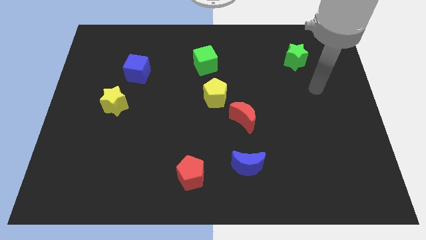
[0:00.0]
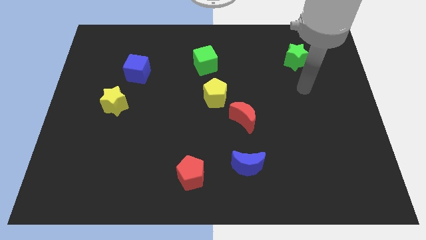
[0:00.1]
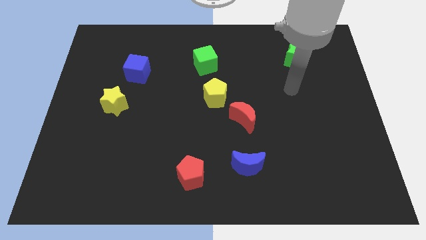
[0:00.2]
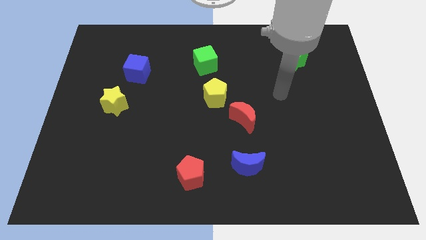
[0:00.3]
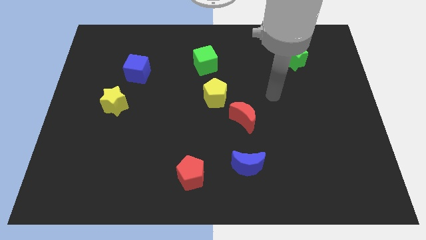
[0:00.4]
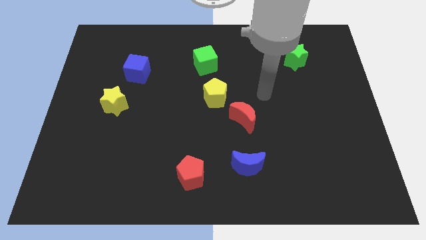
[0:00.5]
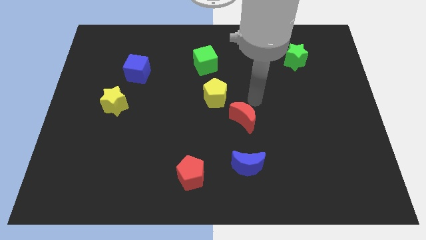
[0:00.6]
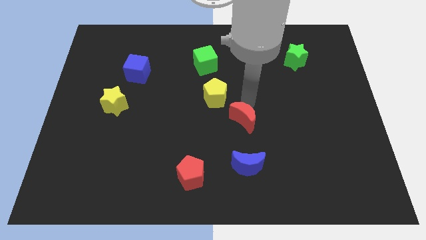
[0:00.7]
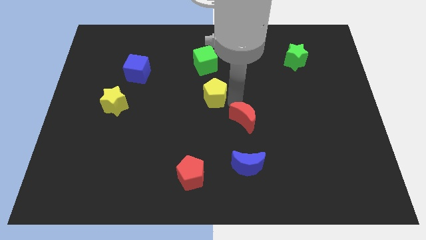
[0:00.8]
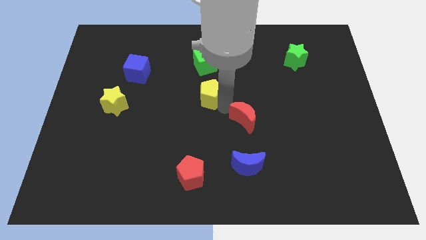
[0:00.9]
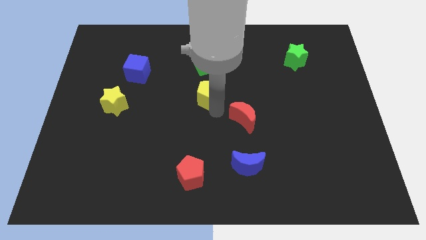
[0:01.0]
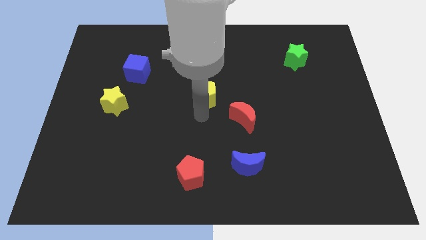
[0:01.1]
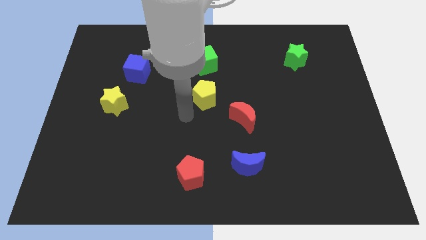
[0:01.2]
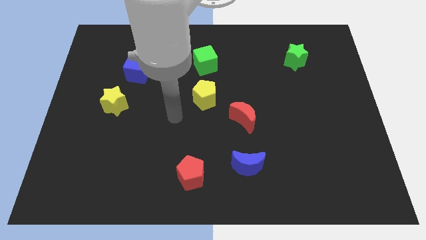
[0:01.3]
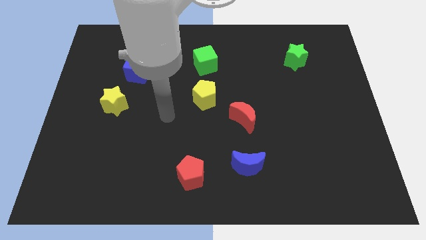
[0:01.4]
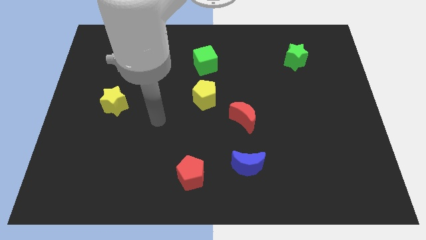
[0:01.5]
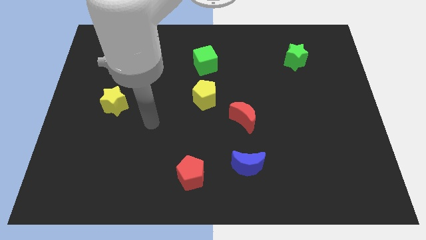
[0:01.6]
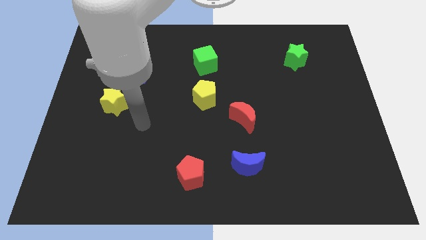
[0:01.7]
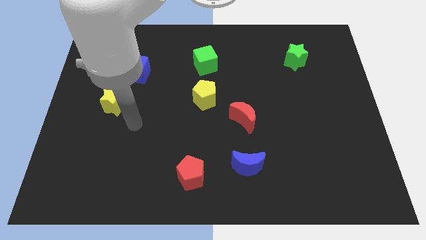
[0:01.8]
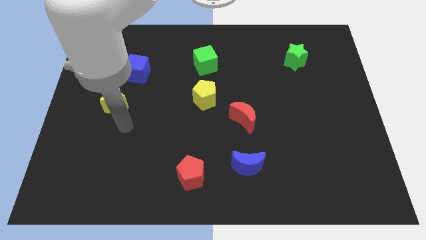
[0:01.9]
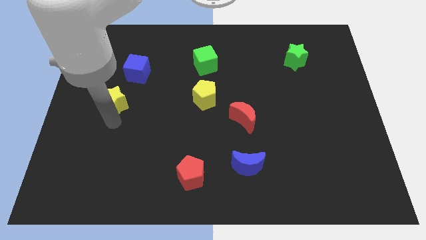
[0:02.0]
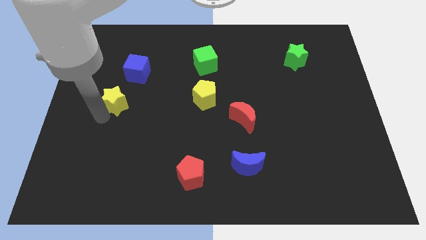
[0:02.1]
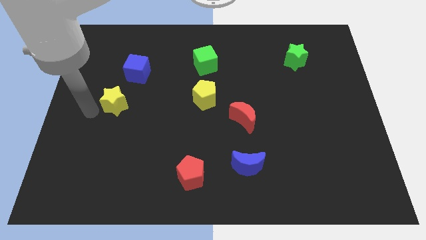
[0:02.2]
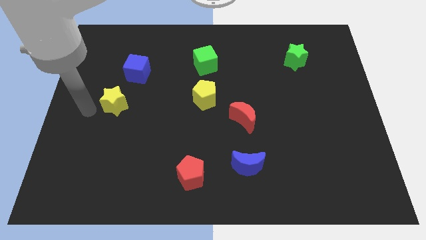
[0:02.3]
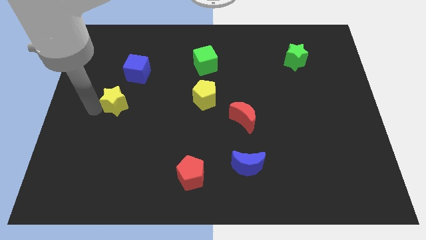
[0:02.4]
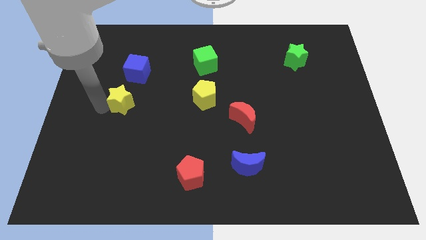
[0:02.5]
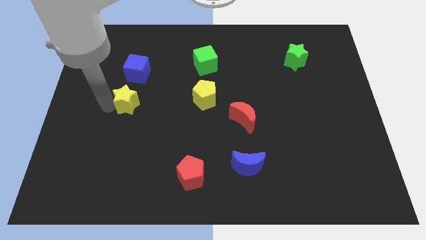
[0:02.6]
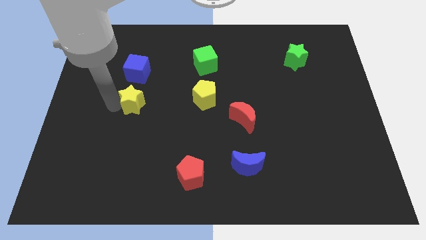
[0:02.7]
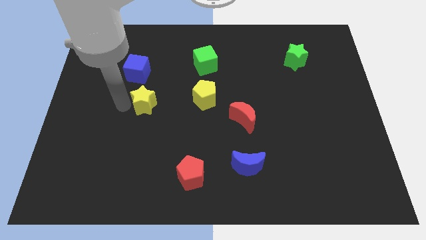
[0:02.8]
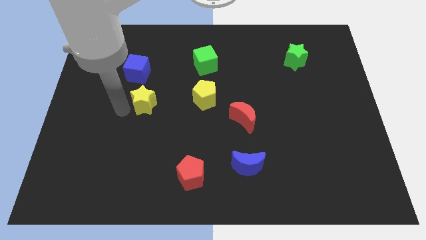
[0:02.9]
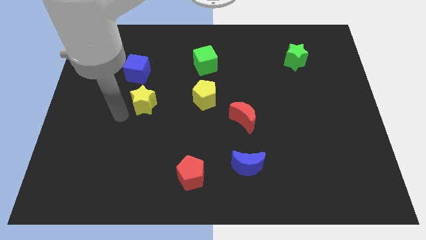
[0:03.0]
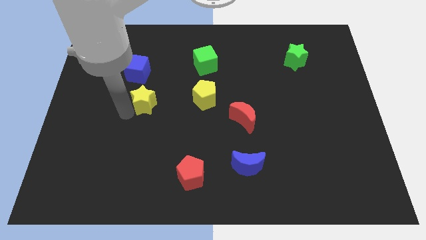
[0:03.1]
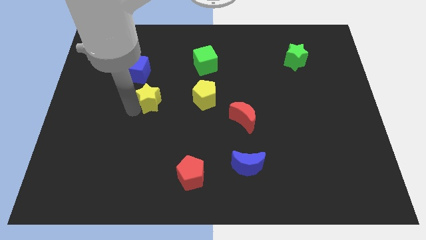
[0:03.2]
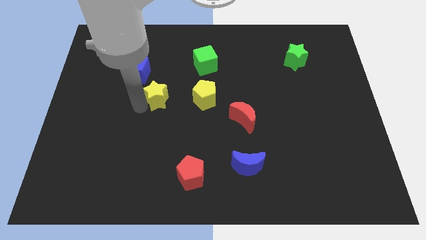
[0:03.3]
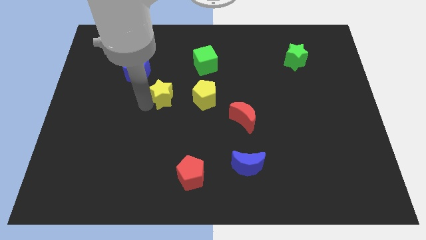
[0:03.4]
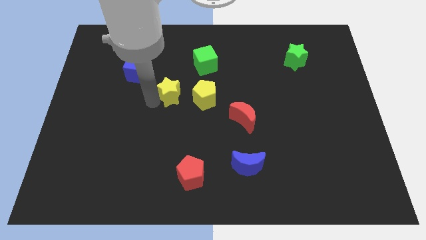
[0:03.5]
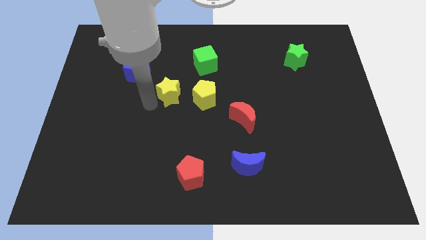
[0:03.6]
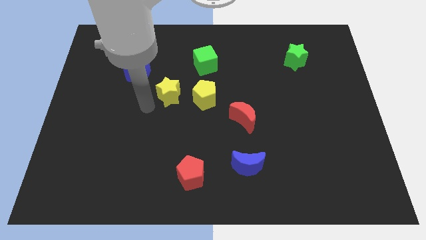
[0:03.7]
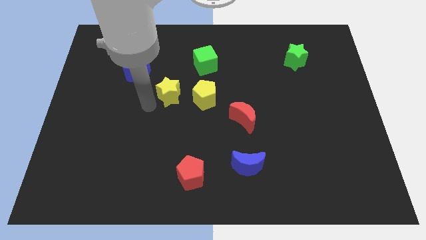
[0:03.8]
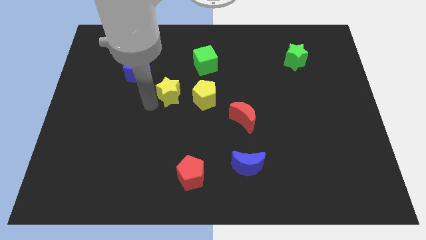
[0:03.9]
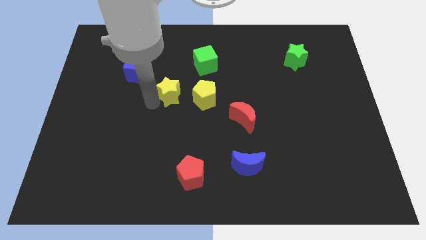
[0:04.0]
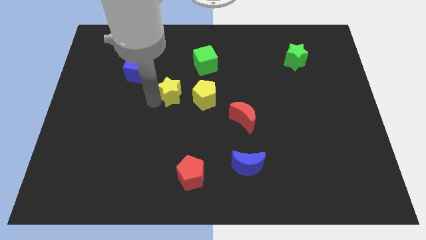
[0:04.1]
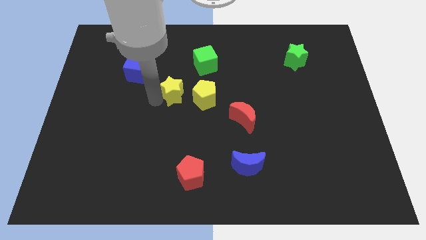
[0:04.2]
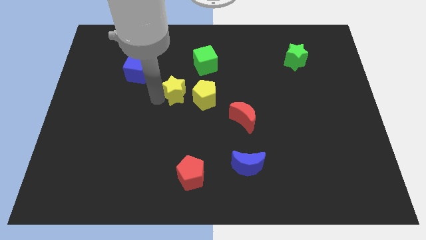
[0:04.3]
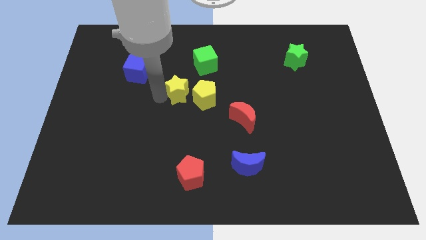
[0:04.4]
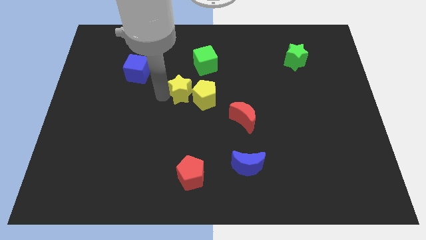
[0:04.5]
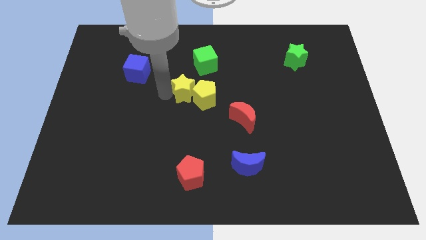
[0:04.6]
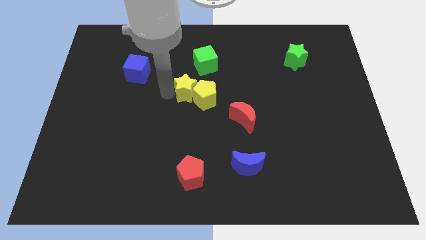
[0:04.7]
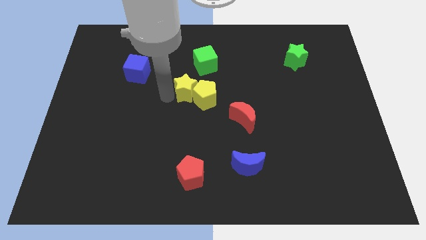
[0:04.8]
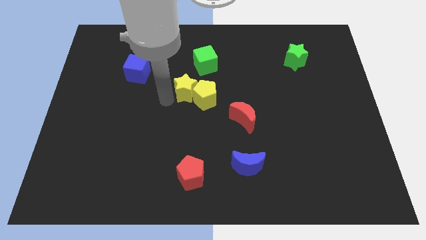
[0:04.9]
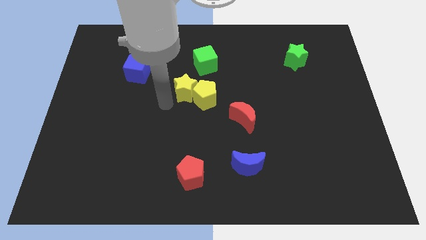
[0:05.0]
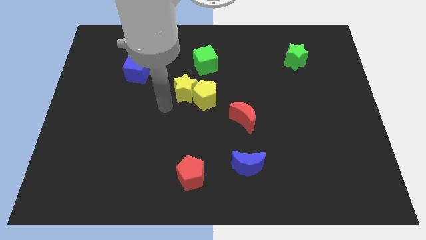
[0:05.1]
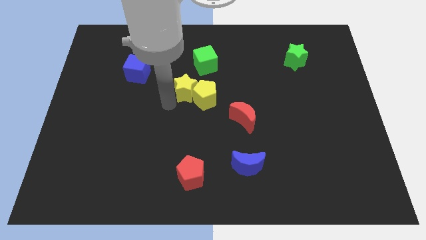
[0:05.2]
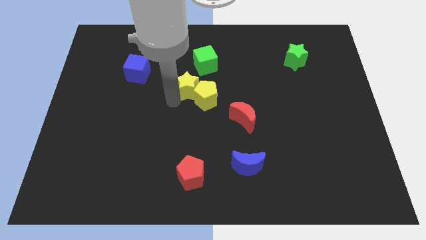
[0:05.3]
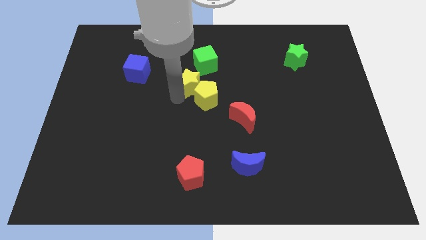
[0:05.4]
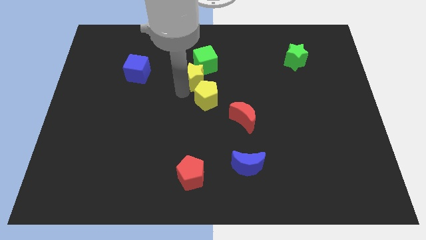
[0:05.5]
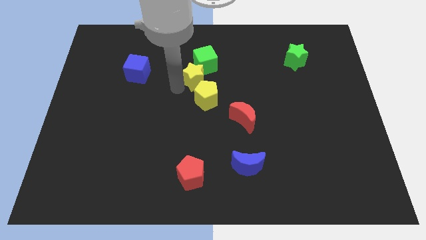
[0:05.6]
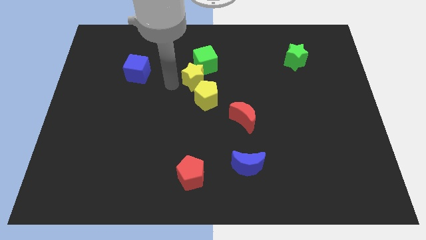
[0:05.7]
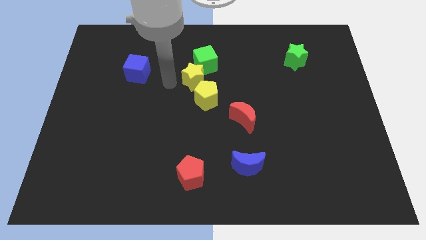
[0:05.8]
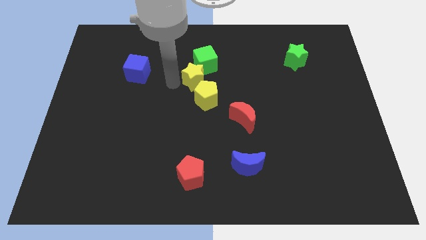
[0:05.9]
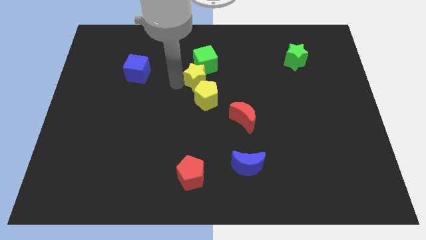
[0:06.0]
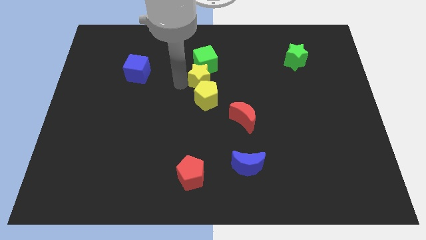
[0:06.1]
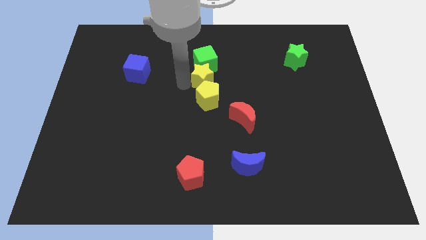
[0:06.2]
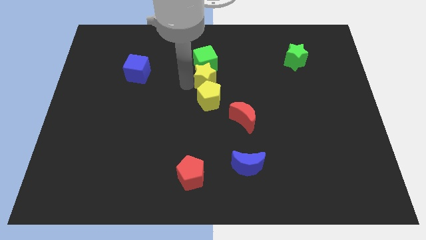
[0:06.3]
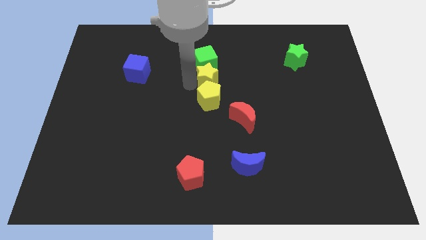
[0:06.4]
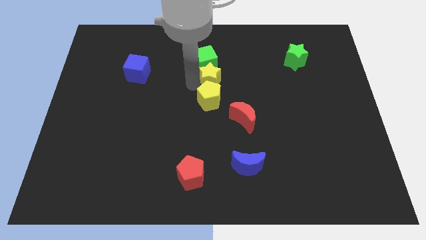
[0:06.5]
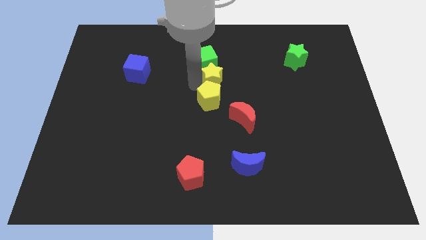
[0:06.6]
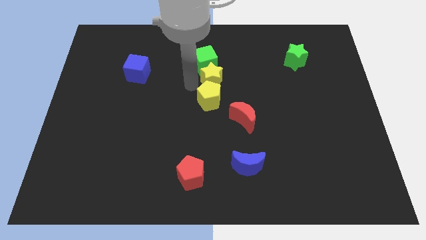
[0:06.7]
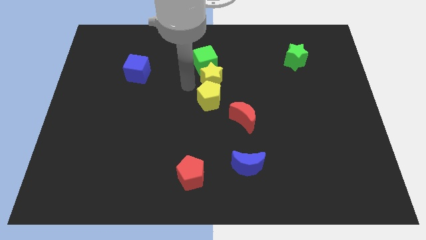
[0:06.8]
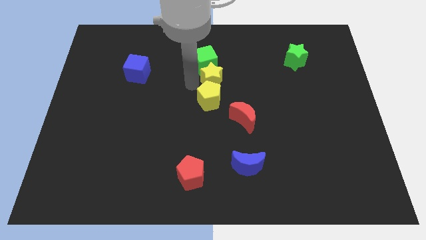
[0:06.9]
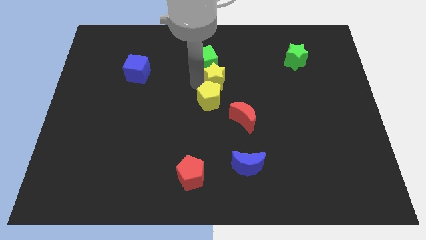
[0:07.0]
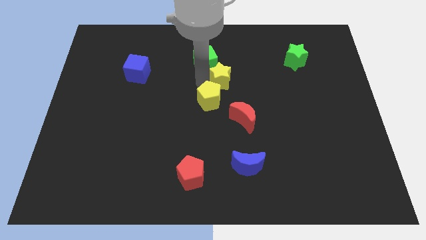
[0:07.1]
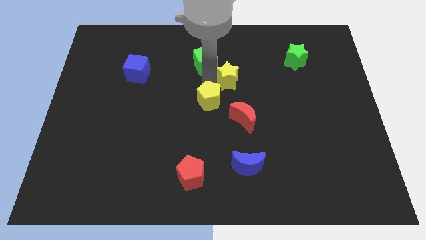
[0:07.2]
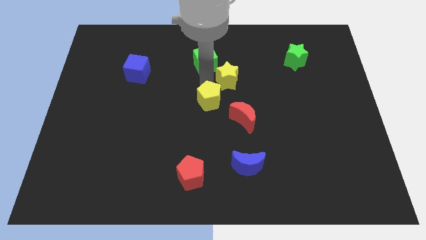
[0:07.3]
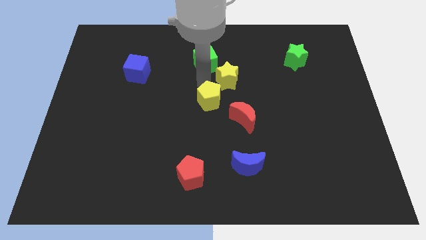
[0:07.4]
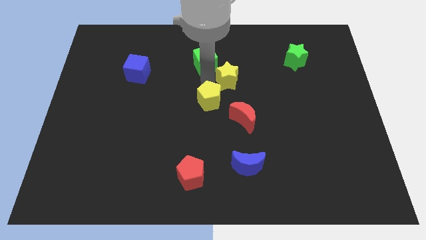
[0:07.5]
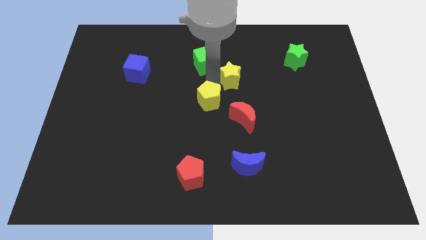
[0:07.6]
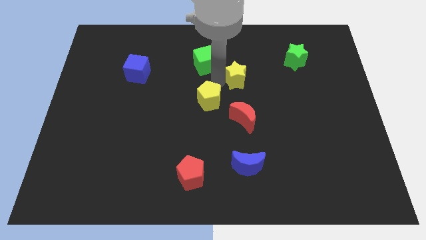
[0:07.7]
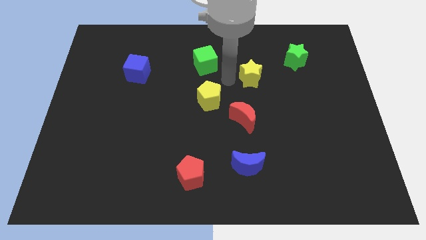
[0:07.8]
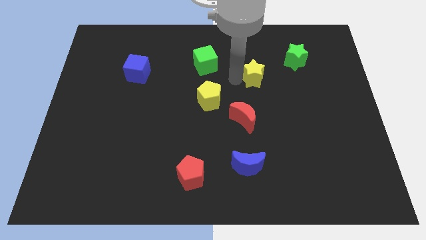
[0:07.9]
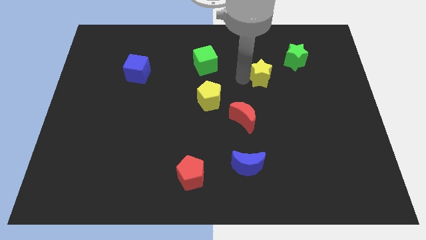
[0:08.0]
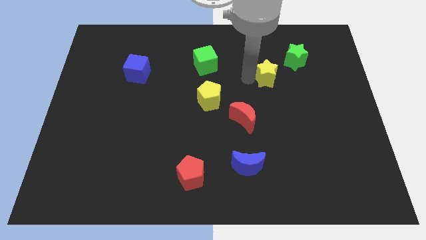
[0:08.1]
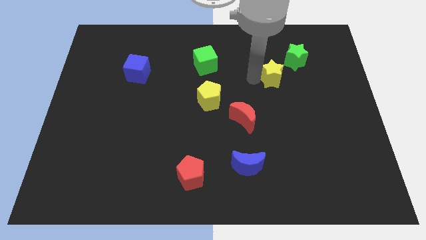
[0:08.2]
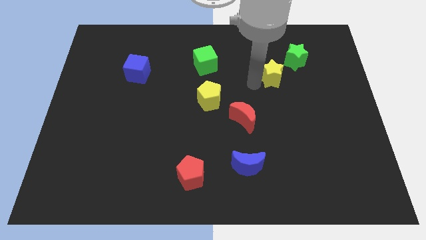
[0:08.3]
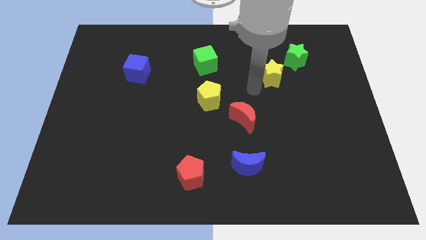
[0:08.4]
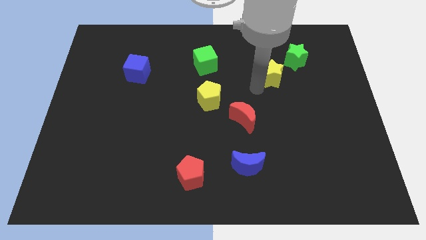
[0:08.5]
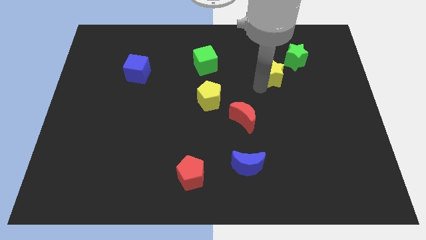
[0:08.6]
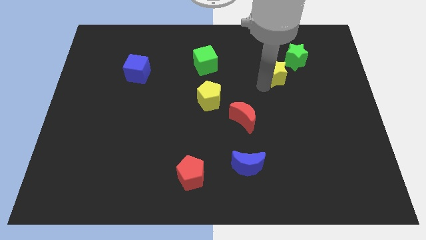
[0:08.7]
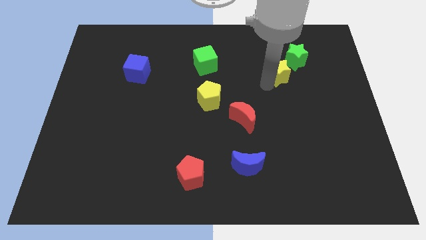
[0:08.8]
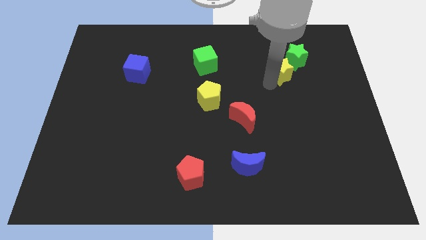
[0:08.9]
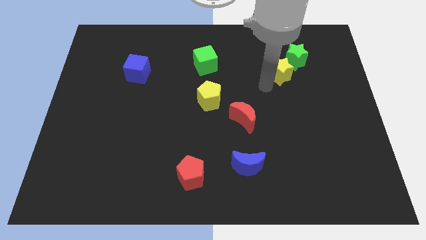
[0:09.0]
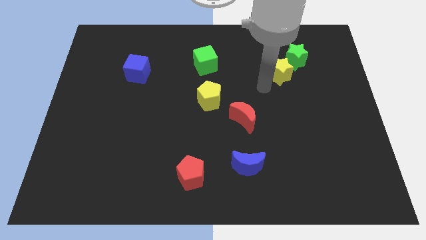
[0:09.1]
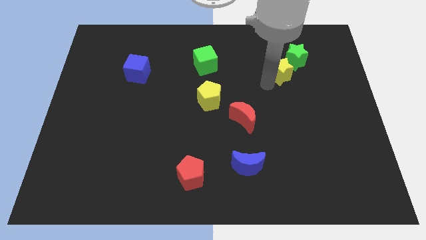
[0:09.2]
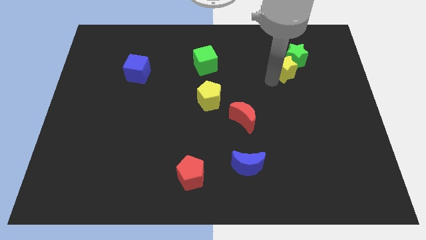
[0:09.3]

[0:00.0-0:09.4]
slide the yellow star to the green star
